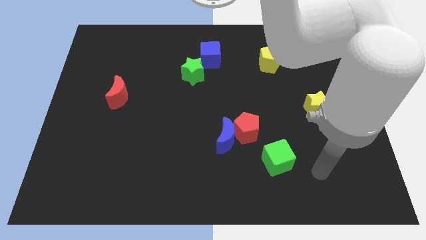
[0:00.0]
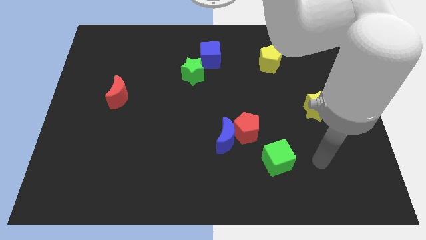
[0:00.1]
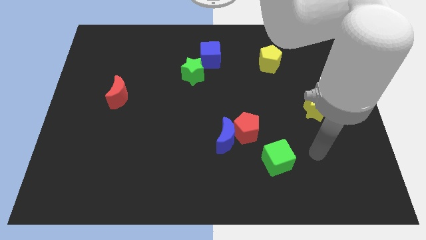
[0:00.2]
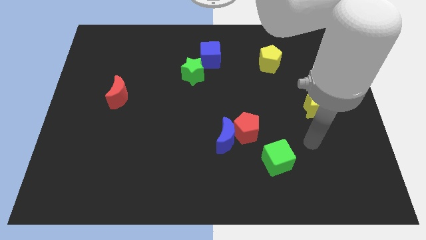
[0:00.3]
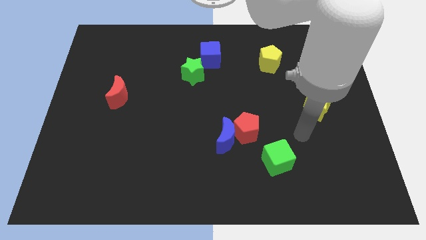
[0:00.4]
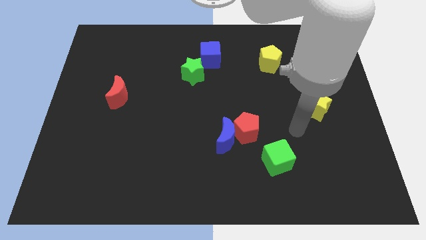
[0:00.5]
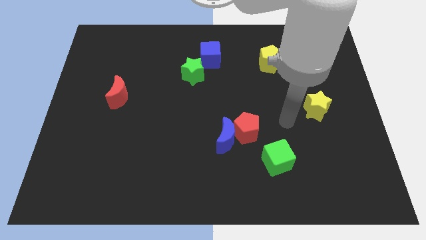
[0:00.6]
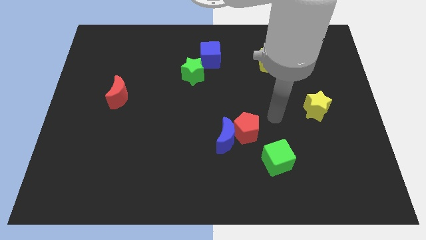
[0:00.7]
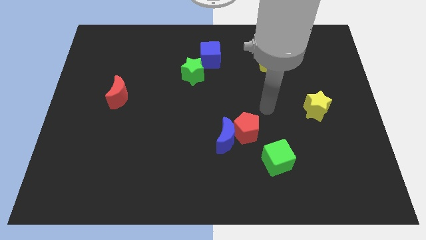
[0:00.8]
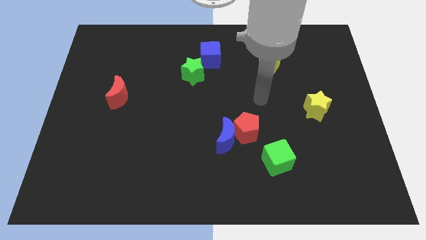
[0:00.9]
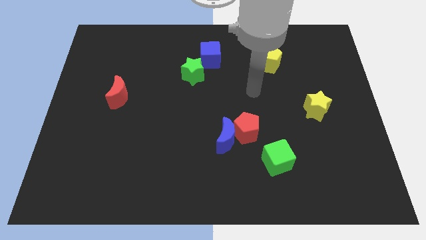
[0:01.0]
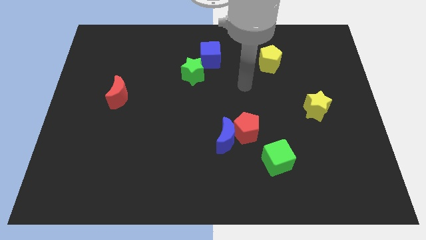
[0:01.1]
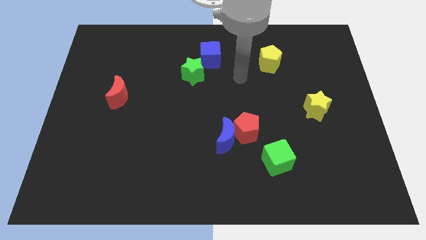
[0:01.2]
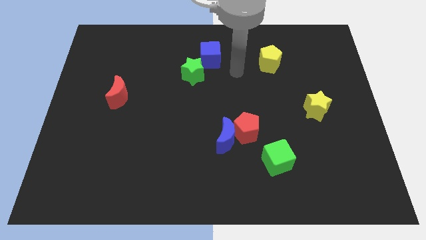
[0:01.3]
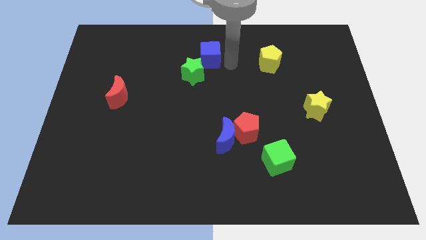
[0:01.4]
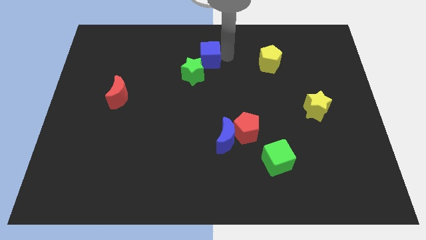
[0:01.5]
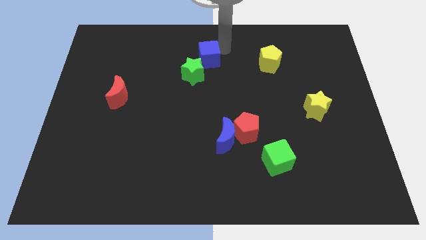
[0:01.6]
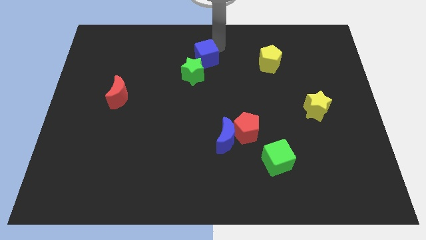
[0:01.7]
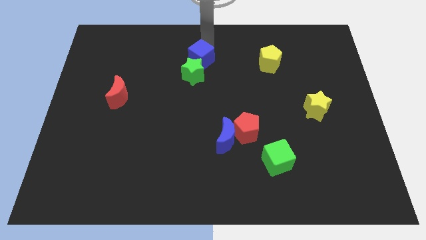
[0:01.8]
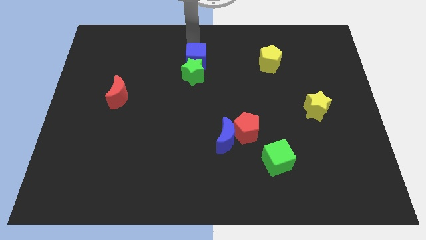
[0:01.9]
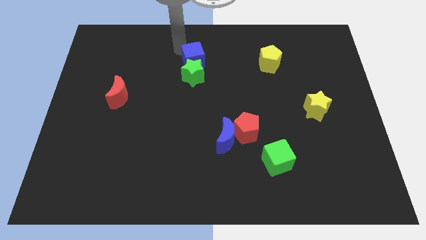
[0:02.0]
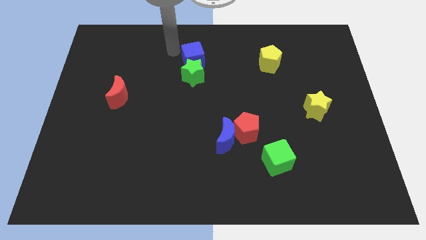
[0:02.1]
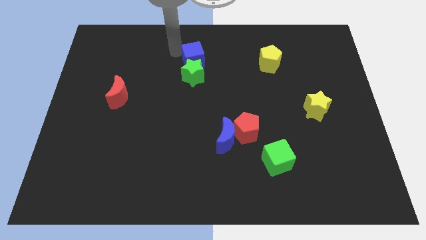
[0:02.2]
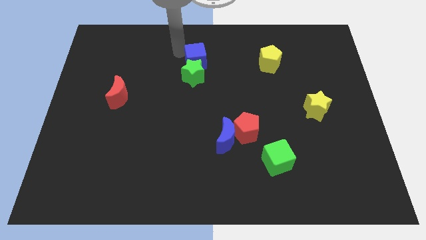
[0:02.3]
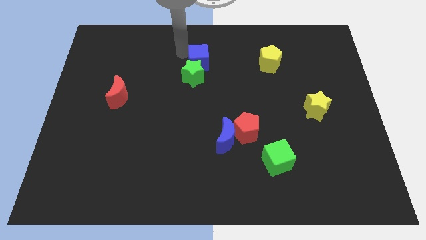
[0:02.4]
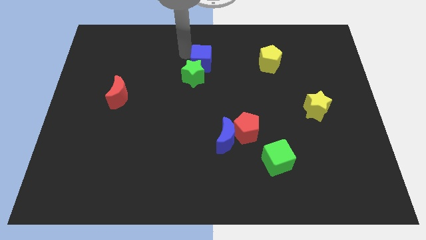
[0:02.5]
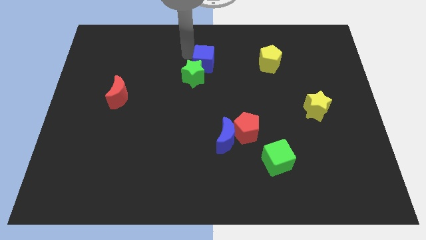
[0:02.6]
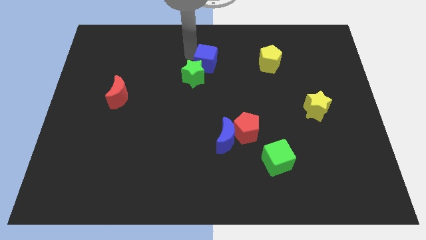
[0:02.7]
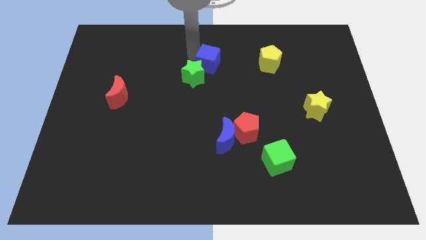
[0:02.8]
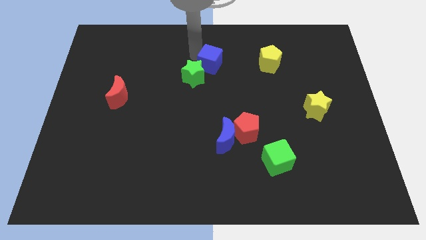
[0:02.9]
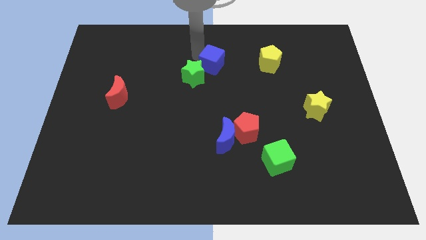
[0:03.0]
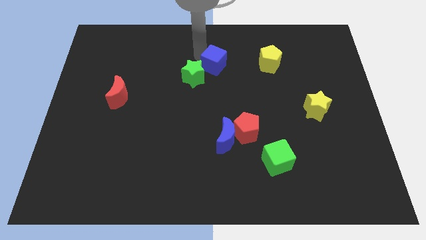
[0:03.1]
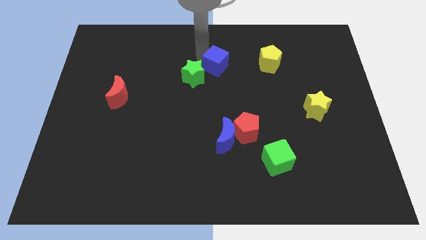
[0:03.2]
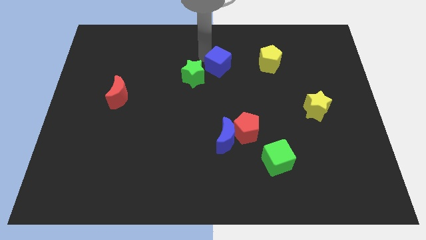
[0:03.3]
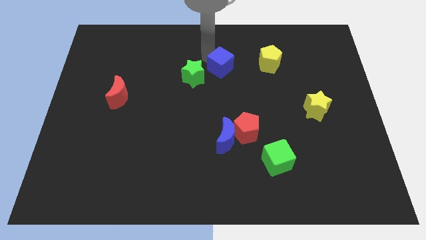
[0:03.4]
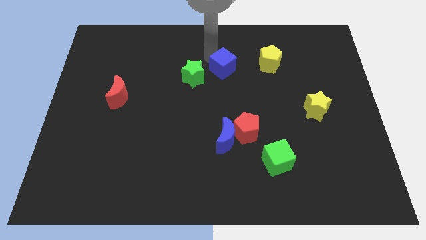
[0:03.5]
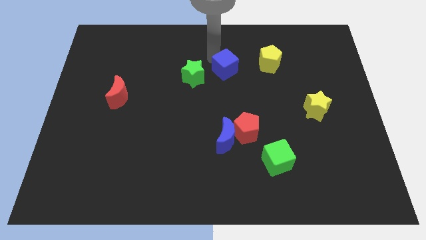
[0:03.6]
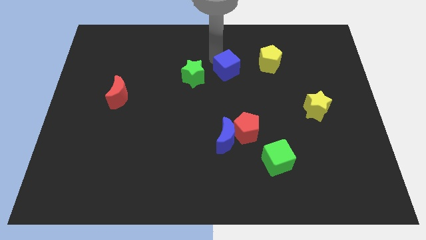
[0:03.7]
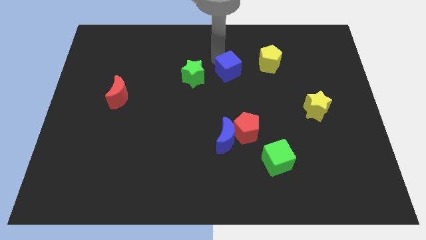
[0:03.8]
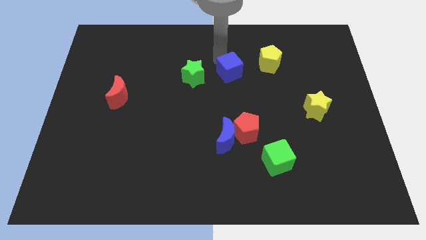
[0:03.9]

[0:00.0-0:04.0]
move the blue cube a little downwards and then to the right

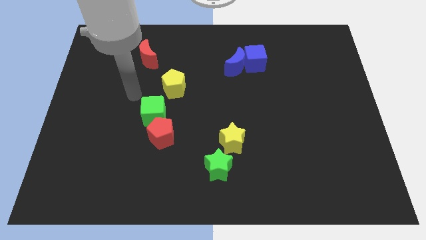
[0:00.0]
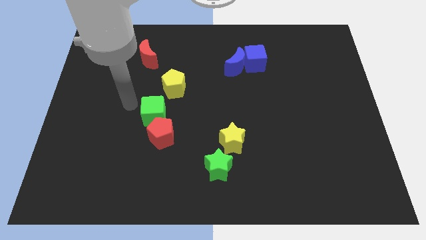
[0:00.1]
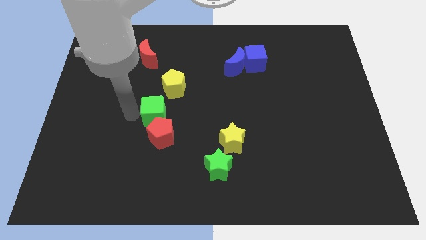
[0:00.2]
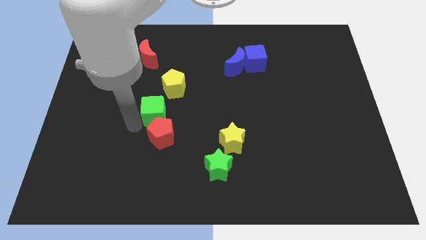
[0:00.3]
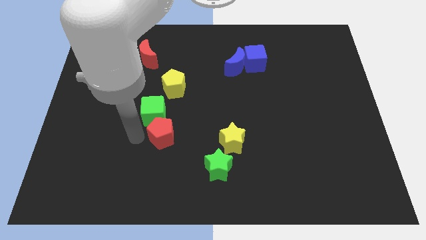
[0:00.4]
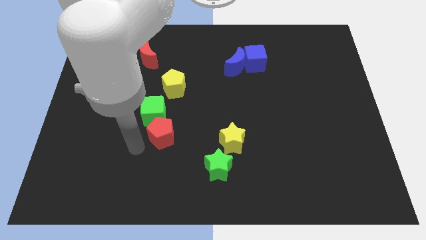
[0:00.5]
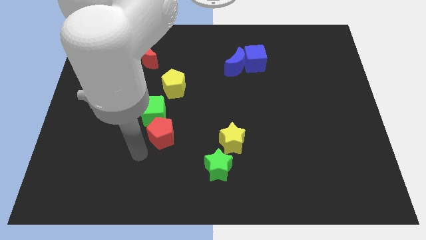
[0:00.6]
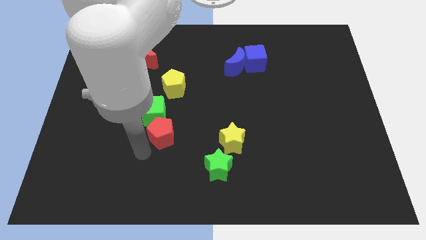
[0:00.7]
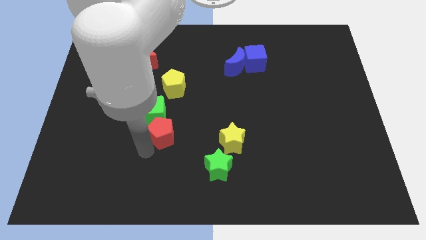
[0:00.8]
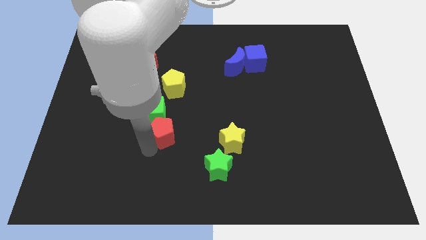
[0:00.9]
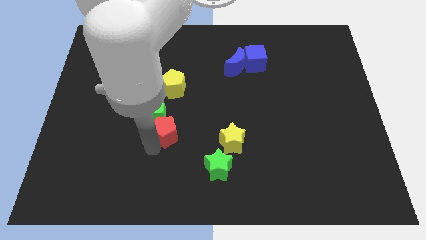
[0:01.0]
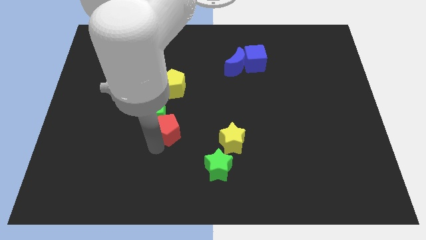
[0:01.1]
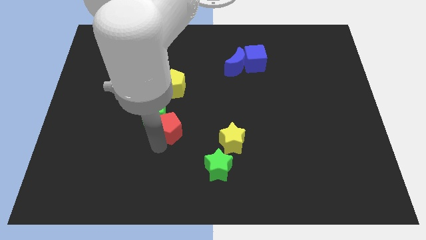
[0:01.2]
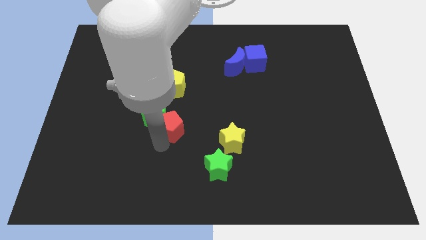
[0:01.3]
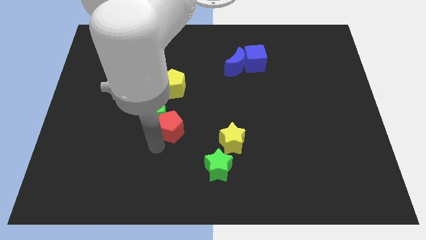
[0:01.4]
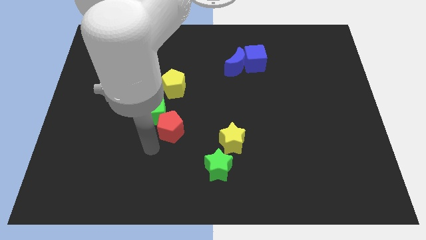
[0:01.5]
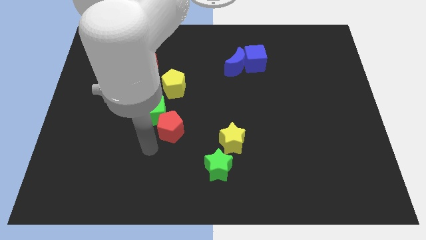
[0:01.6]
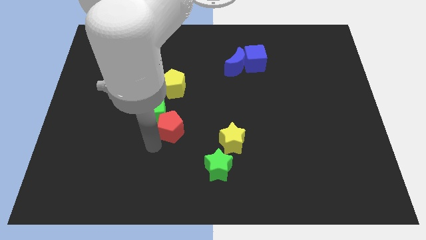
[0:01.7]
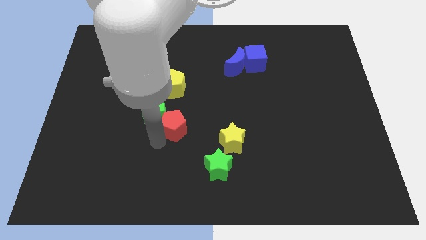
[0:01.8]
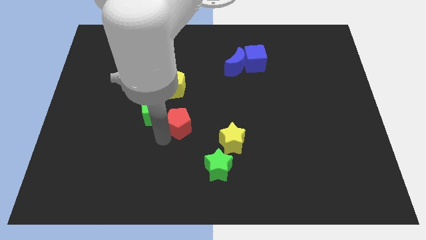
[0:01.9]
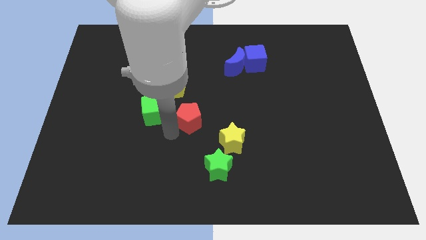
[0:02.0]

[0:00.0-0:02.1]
move the red pentagon up and then to the right slightly

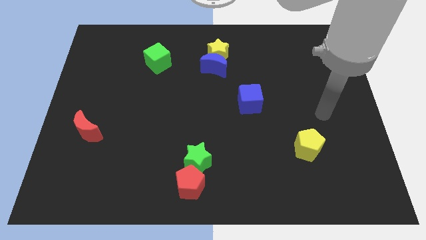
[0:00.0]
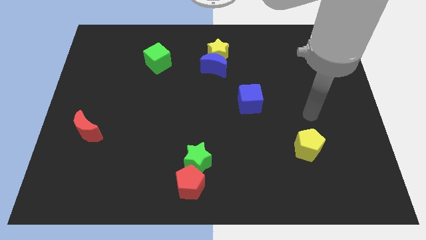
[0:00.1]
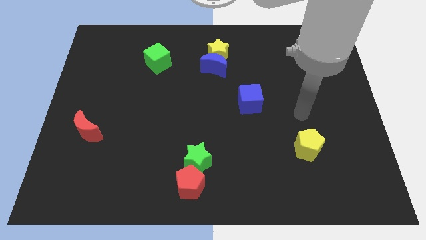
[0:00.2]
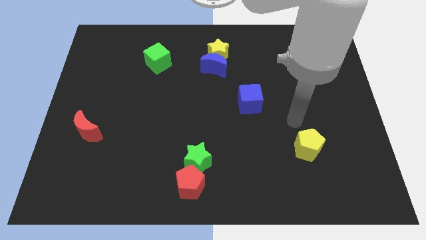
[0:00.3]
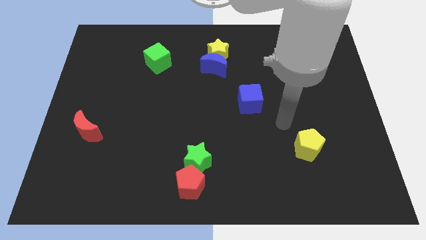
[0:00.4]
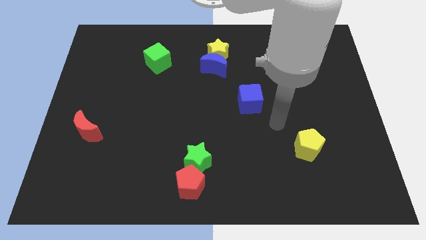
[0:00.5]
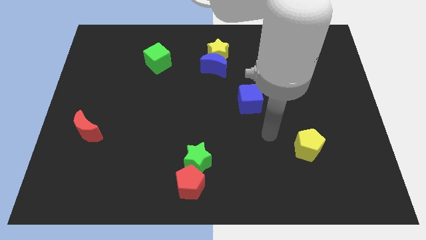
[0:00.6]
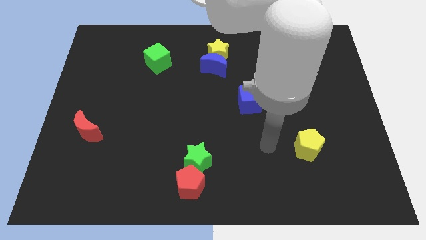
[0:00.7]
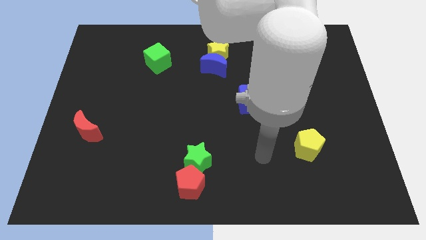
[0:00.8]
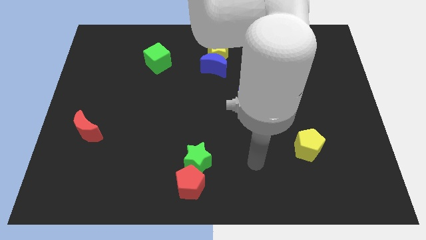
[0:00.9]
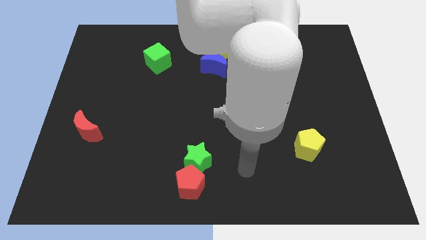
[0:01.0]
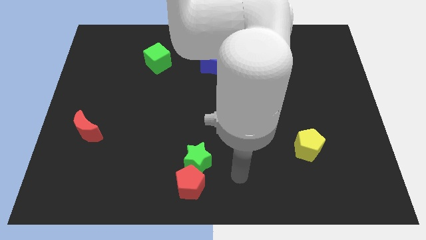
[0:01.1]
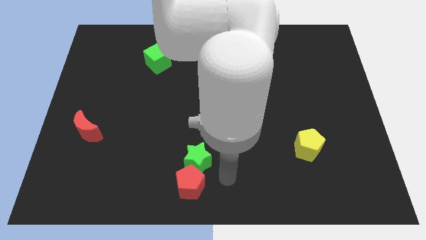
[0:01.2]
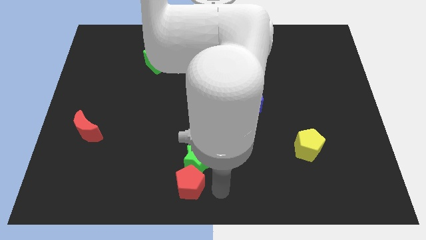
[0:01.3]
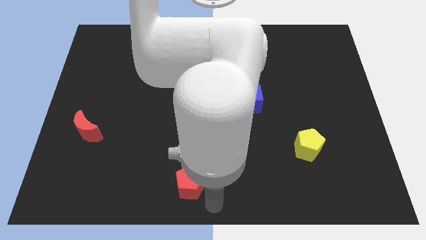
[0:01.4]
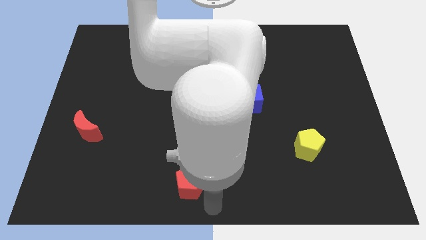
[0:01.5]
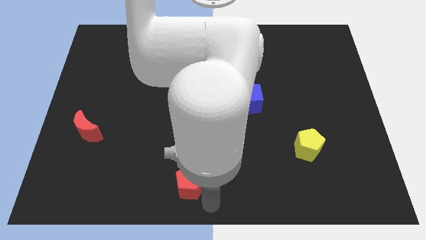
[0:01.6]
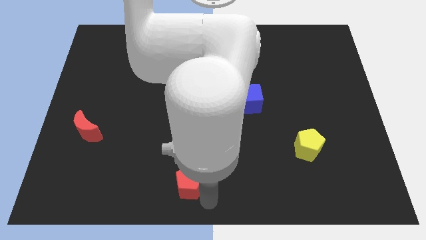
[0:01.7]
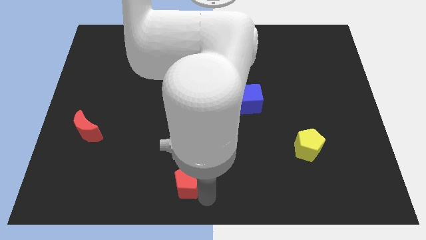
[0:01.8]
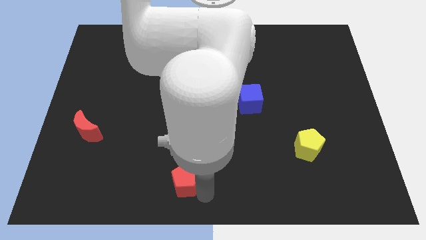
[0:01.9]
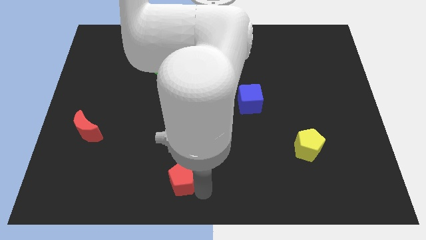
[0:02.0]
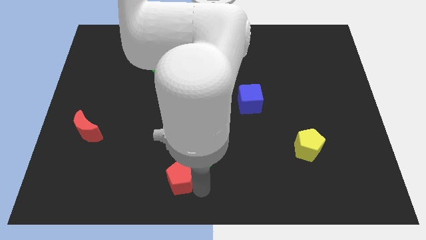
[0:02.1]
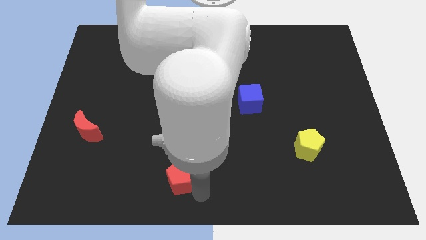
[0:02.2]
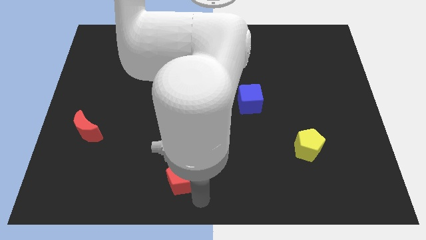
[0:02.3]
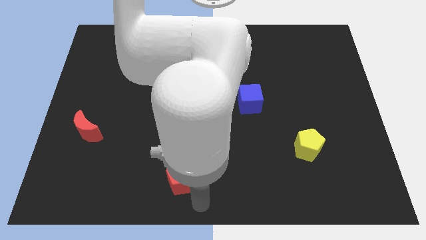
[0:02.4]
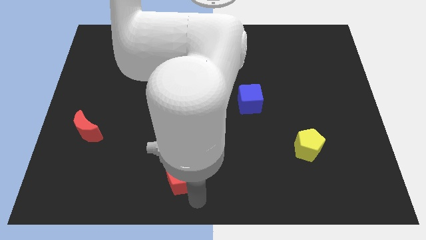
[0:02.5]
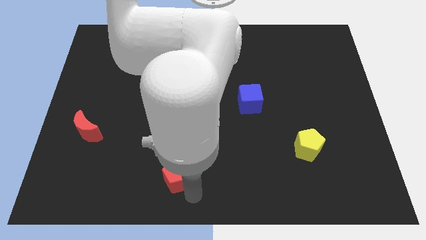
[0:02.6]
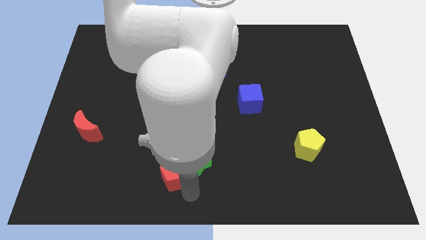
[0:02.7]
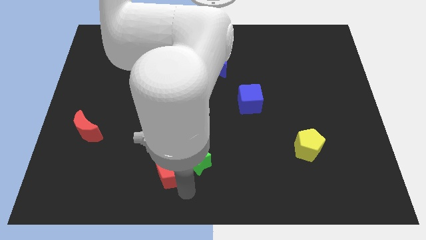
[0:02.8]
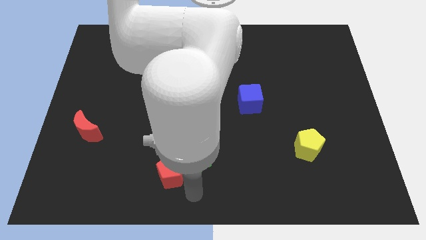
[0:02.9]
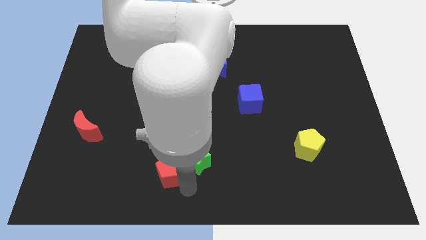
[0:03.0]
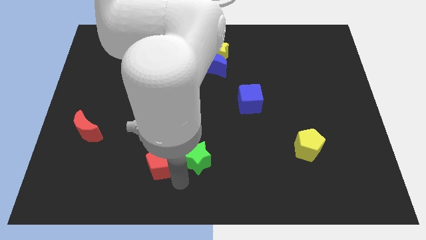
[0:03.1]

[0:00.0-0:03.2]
slide the red pentagon up and left slightly
